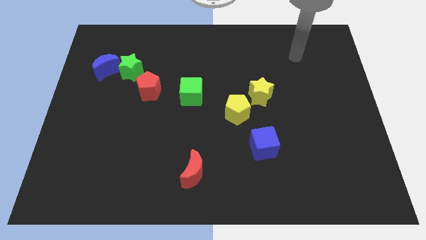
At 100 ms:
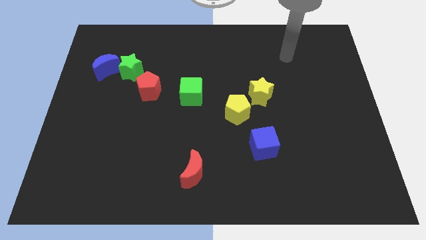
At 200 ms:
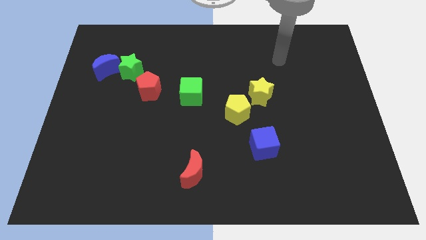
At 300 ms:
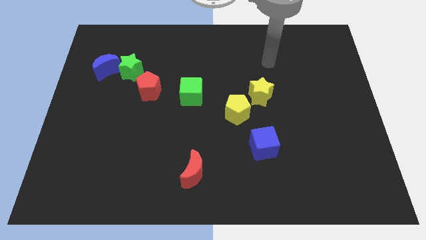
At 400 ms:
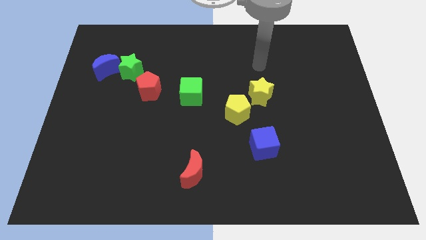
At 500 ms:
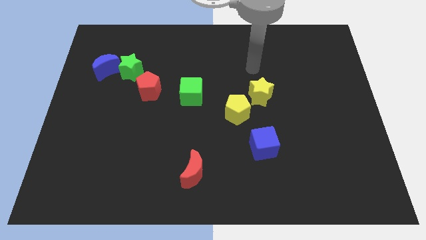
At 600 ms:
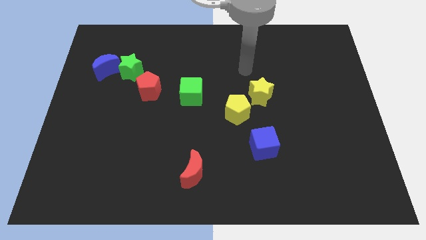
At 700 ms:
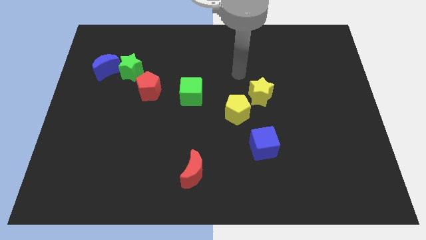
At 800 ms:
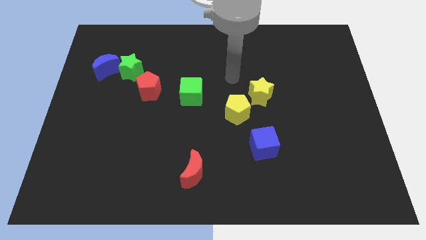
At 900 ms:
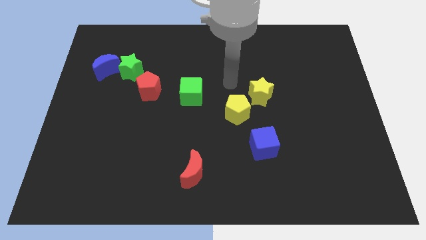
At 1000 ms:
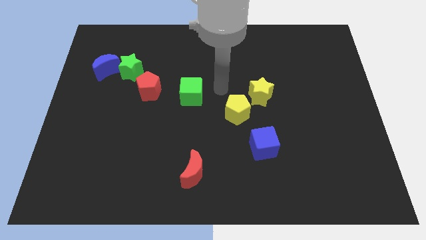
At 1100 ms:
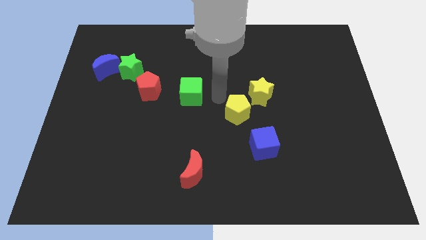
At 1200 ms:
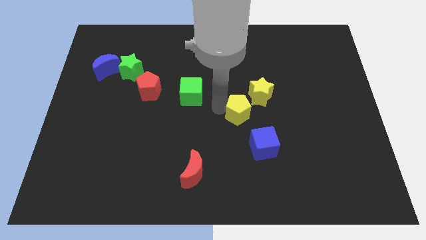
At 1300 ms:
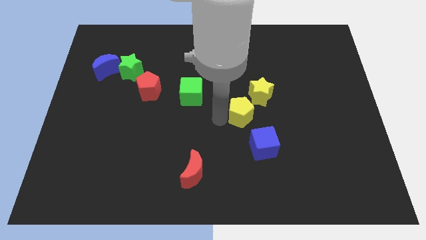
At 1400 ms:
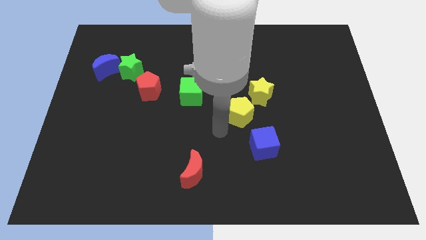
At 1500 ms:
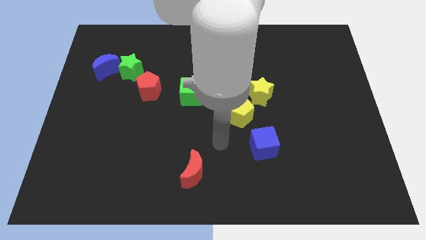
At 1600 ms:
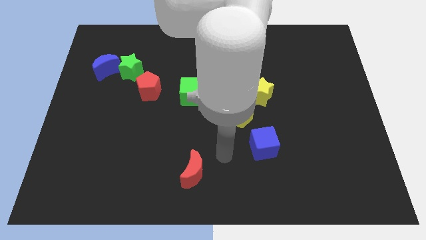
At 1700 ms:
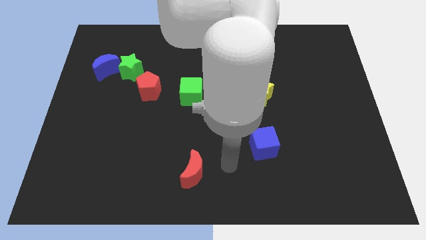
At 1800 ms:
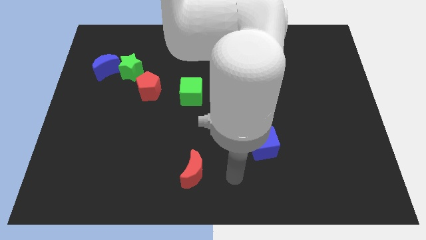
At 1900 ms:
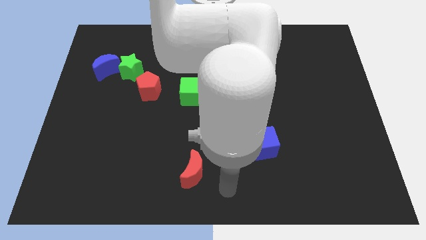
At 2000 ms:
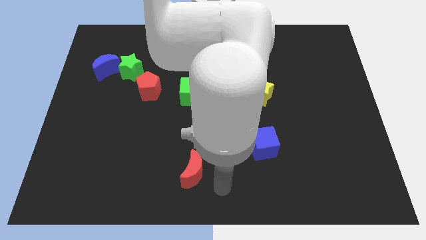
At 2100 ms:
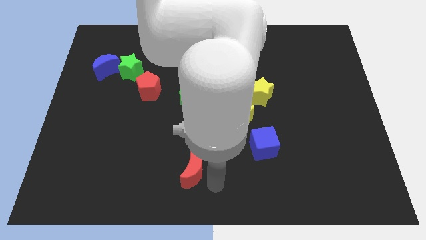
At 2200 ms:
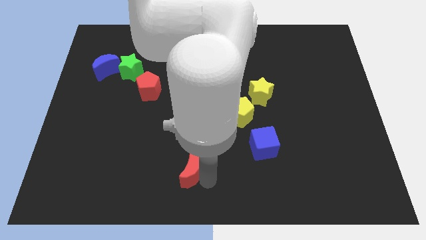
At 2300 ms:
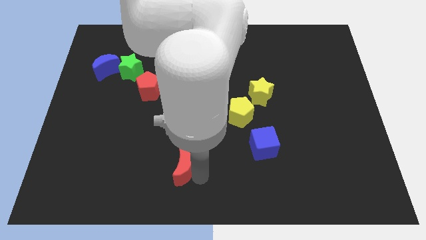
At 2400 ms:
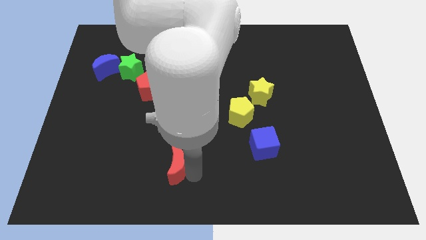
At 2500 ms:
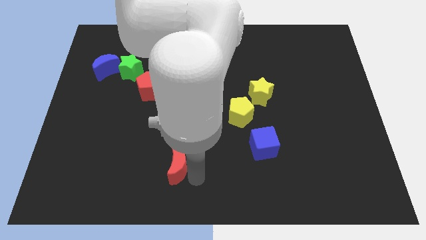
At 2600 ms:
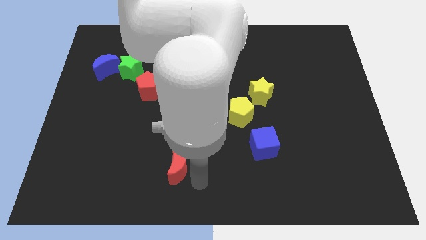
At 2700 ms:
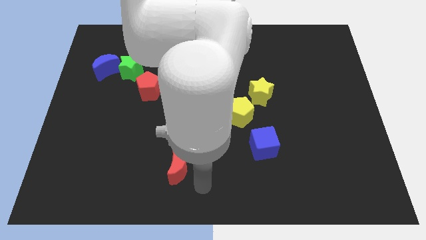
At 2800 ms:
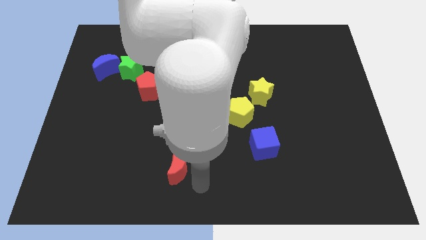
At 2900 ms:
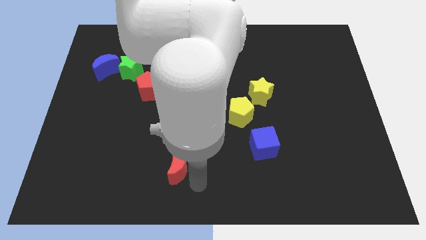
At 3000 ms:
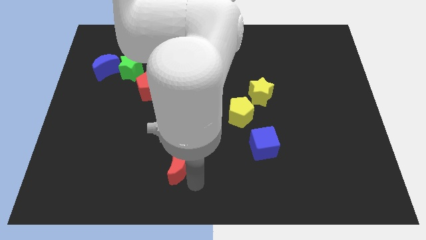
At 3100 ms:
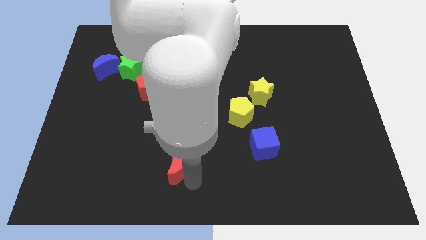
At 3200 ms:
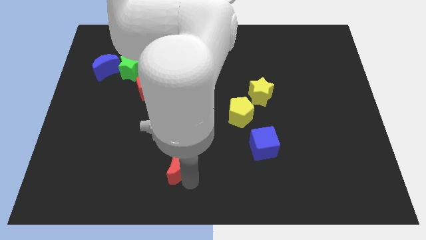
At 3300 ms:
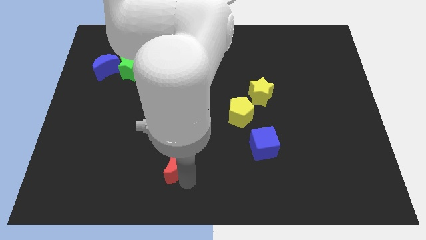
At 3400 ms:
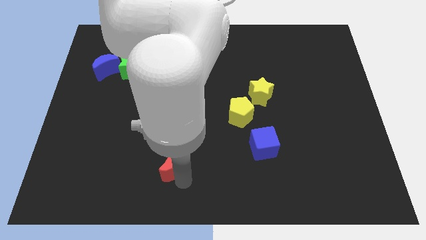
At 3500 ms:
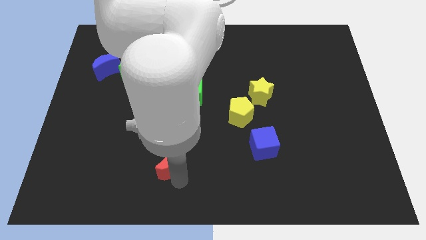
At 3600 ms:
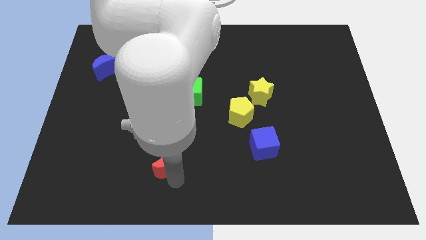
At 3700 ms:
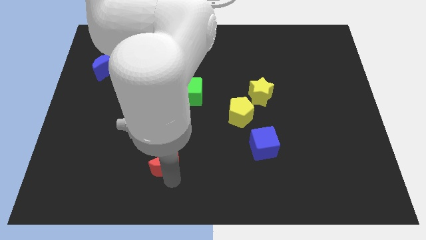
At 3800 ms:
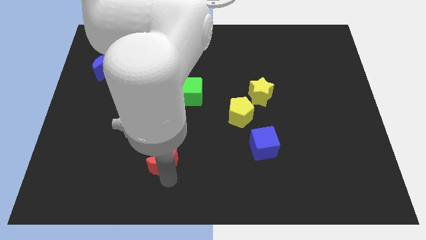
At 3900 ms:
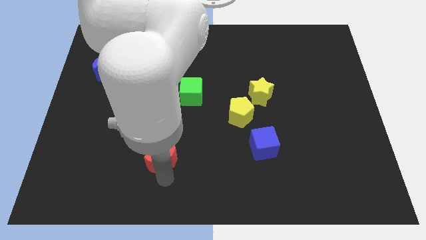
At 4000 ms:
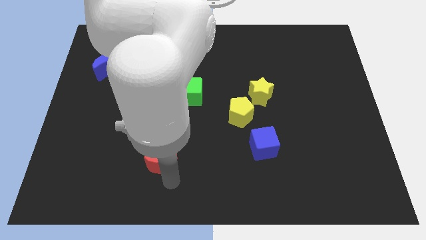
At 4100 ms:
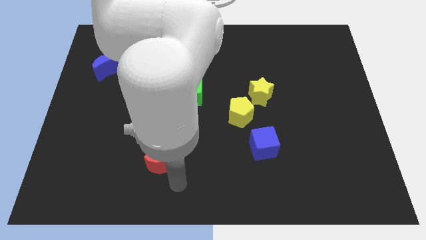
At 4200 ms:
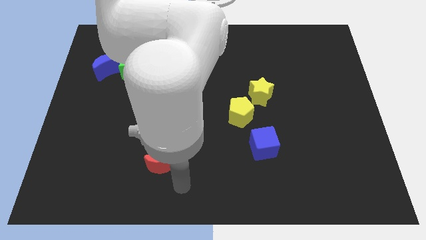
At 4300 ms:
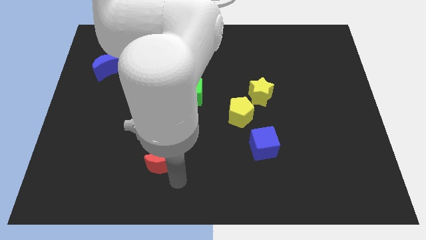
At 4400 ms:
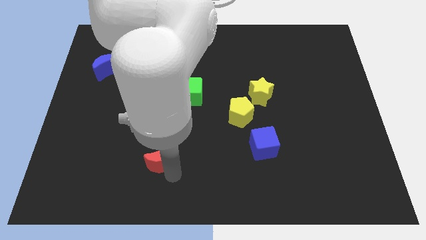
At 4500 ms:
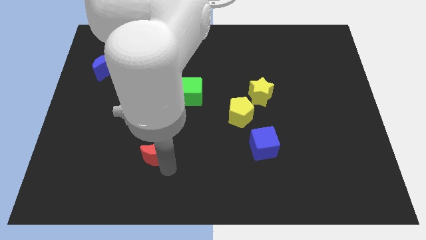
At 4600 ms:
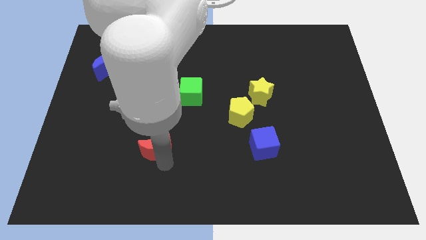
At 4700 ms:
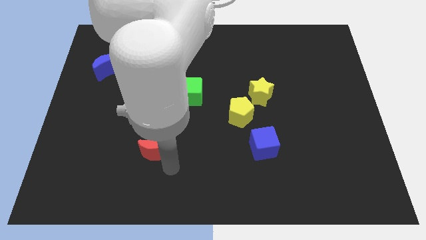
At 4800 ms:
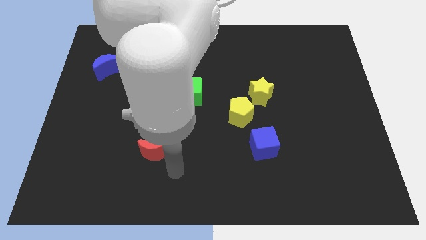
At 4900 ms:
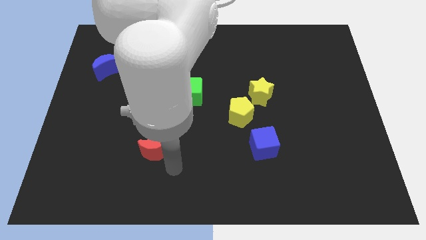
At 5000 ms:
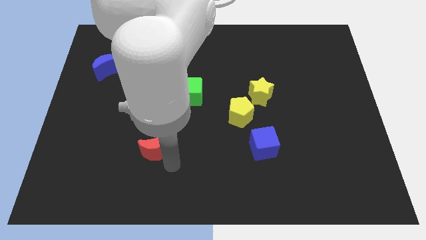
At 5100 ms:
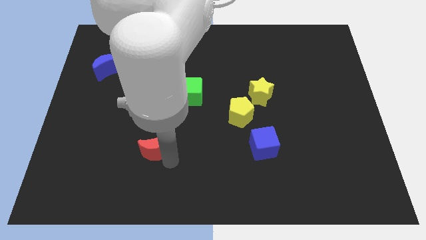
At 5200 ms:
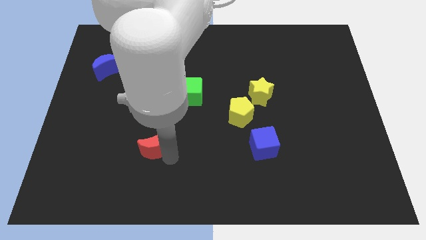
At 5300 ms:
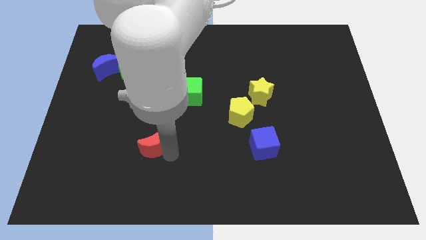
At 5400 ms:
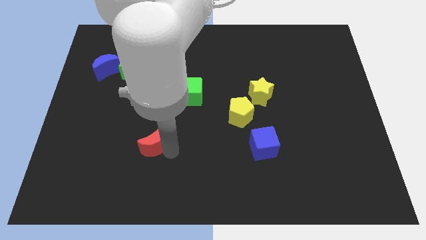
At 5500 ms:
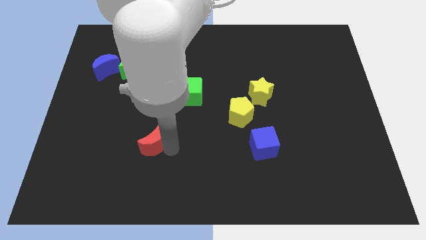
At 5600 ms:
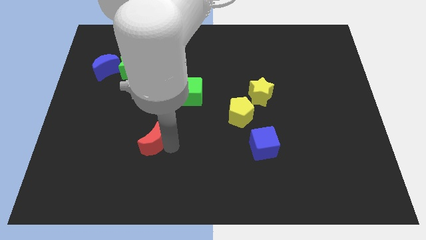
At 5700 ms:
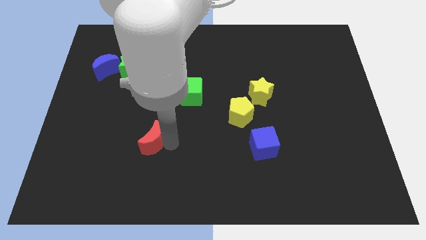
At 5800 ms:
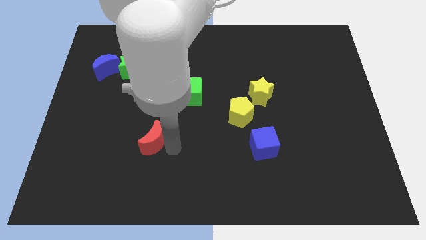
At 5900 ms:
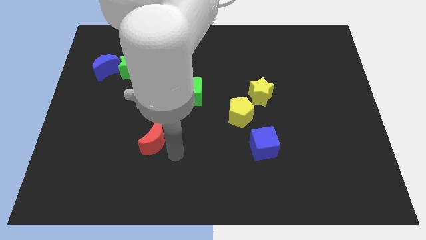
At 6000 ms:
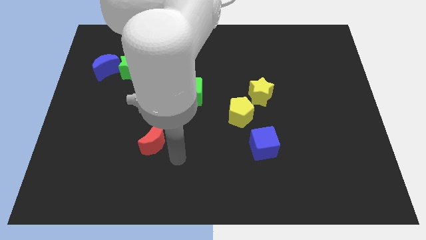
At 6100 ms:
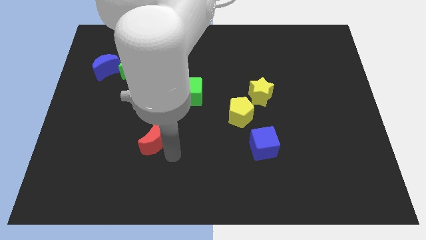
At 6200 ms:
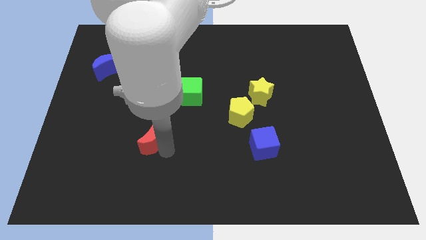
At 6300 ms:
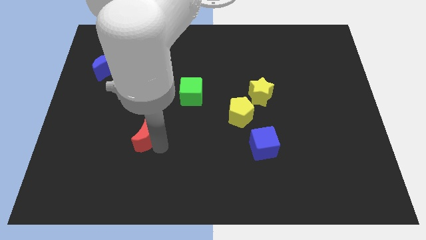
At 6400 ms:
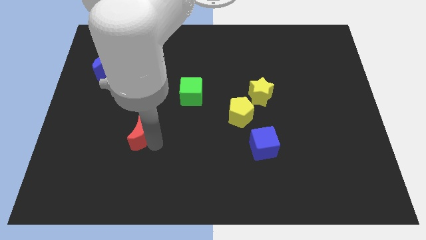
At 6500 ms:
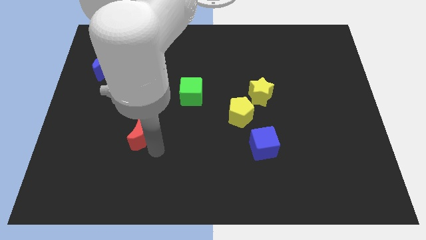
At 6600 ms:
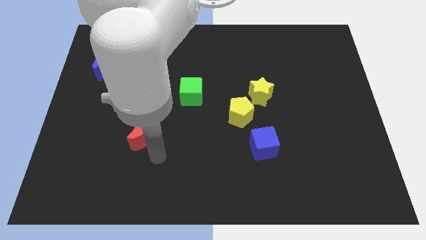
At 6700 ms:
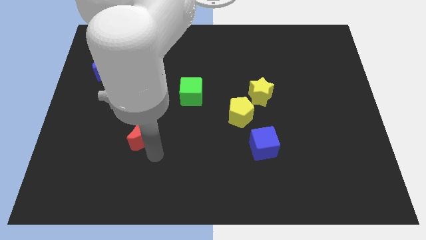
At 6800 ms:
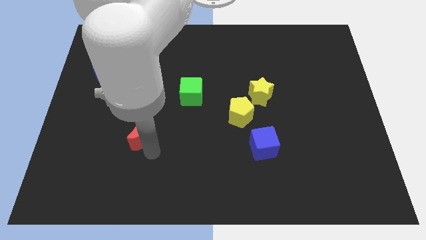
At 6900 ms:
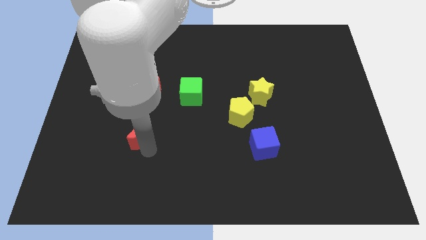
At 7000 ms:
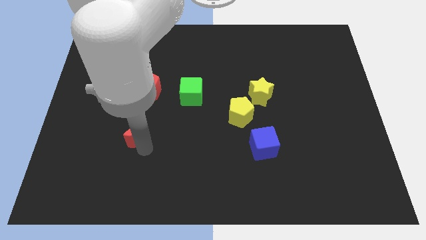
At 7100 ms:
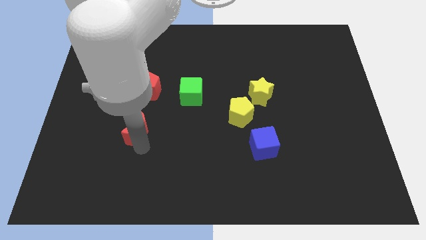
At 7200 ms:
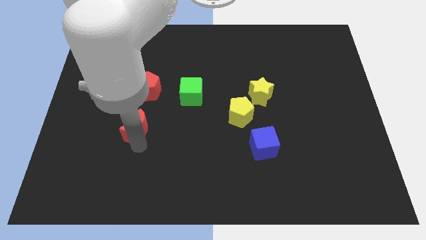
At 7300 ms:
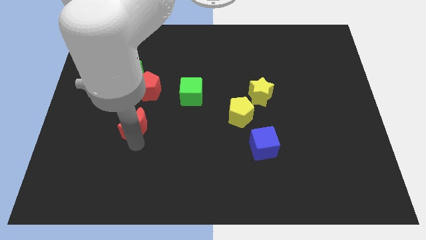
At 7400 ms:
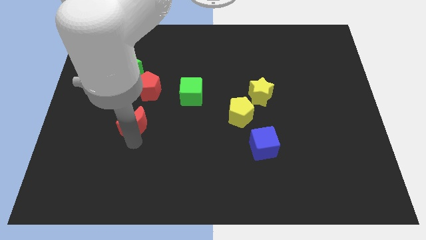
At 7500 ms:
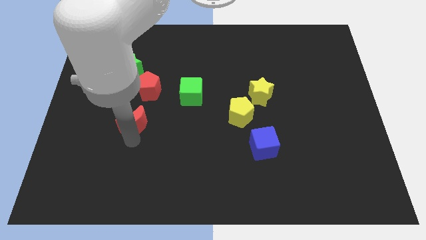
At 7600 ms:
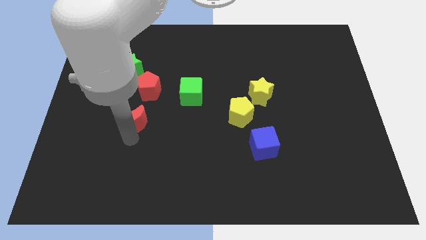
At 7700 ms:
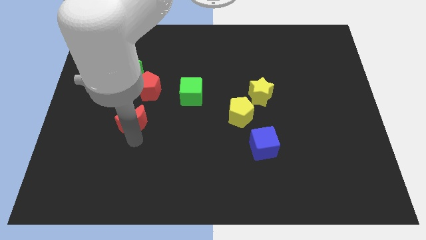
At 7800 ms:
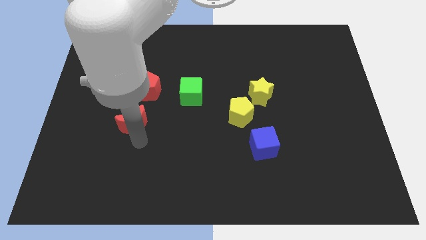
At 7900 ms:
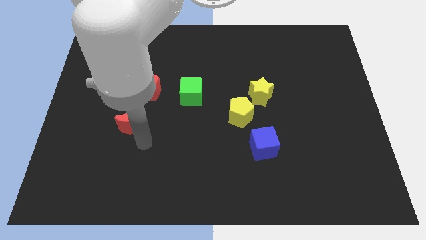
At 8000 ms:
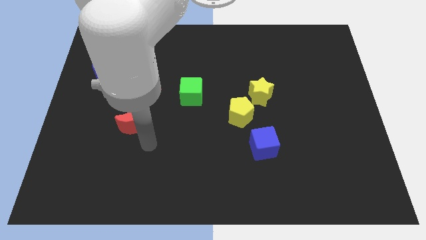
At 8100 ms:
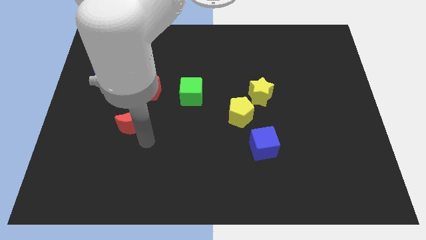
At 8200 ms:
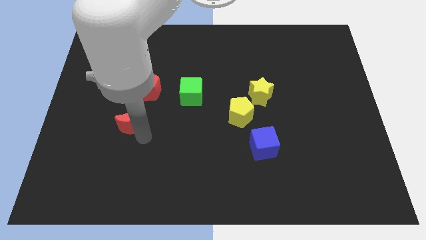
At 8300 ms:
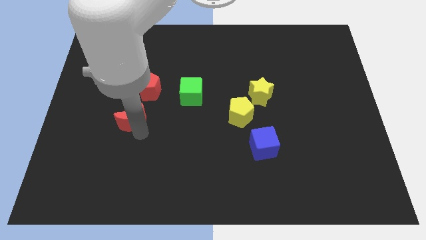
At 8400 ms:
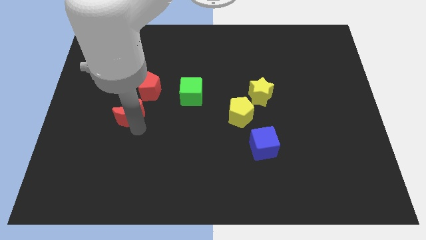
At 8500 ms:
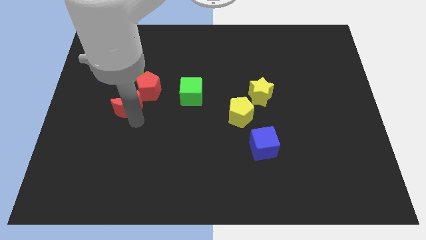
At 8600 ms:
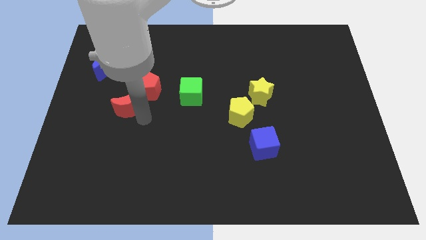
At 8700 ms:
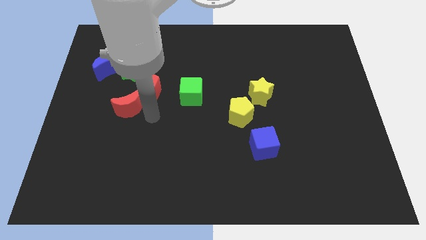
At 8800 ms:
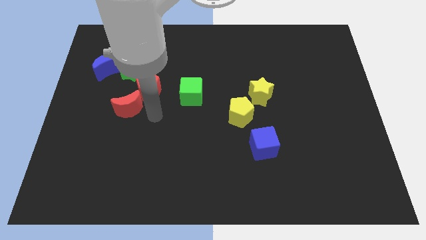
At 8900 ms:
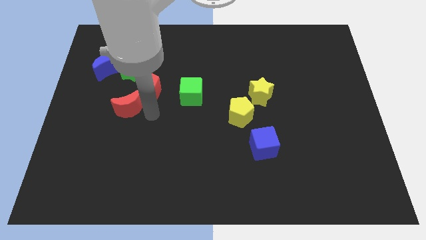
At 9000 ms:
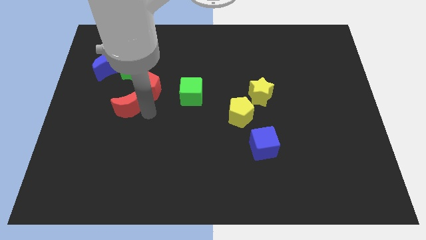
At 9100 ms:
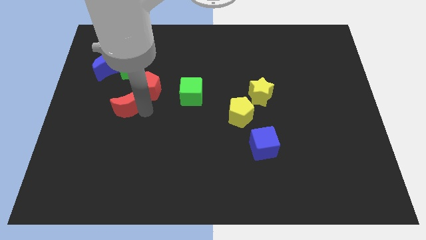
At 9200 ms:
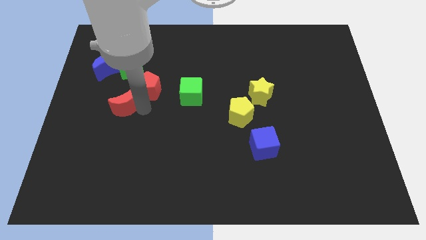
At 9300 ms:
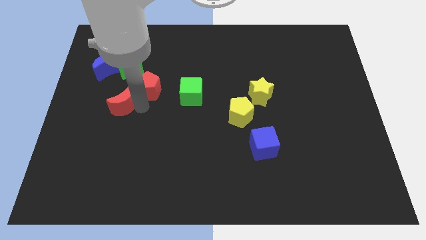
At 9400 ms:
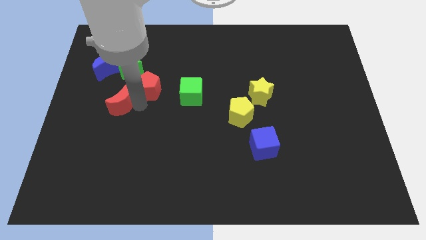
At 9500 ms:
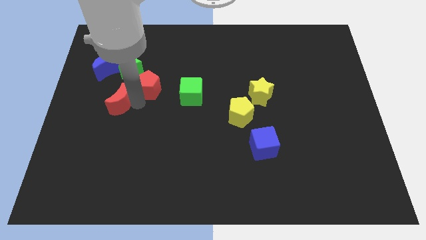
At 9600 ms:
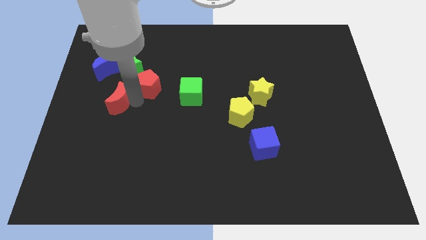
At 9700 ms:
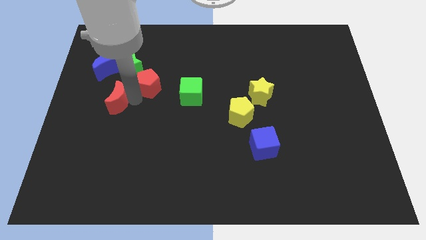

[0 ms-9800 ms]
put the red moon to the bottom side of the blue moon
